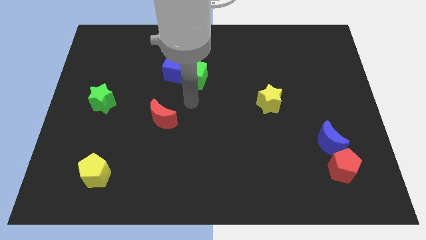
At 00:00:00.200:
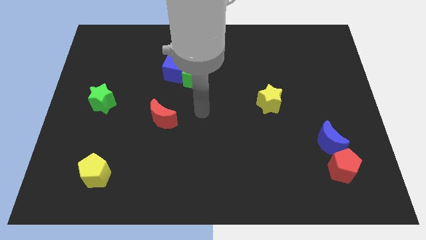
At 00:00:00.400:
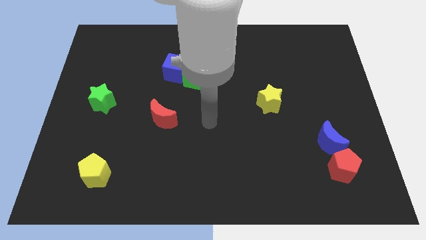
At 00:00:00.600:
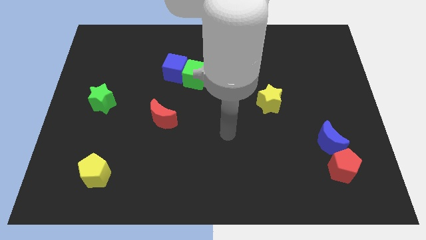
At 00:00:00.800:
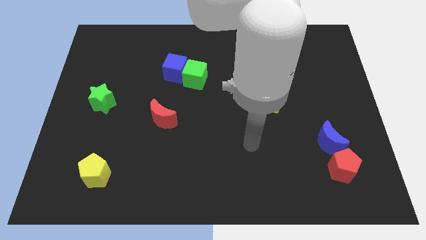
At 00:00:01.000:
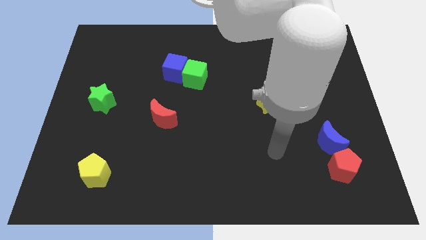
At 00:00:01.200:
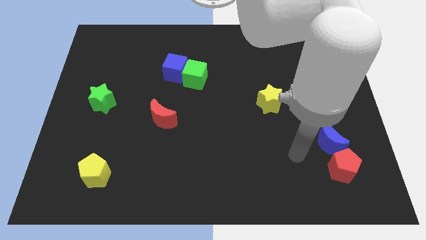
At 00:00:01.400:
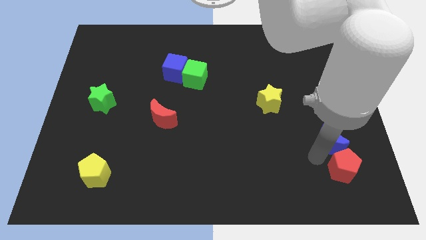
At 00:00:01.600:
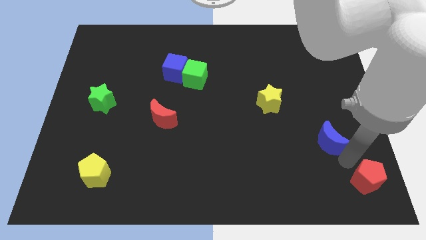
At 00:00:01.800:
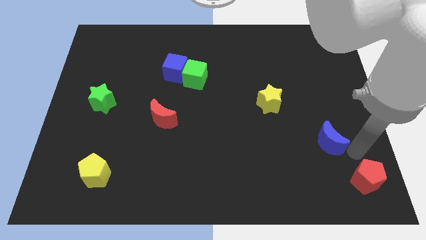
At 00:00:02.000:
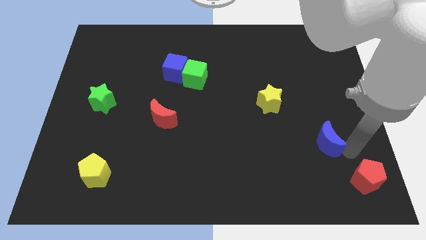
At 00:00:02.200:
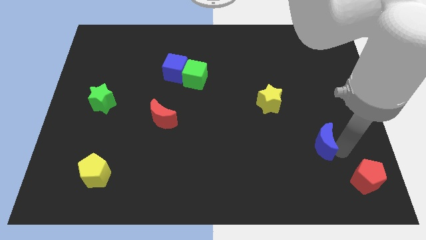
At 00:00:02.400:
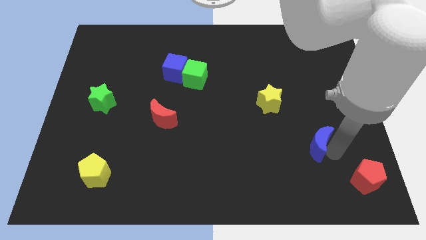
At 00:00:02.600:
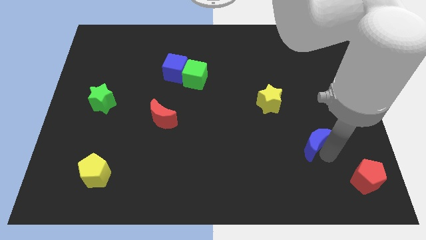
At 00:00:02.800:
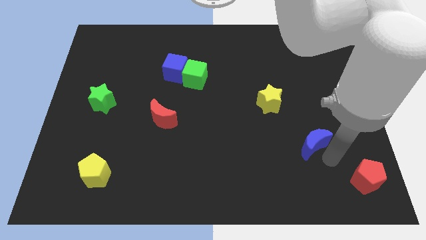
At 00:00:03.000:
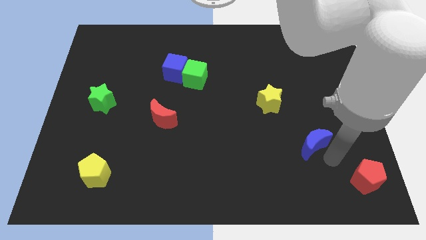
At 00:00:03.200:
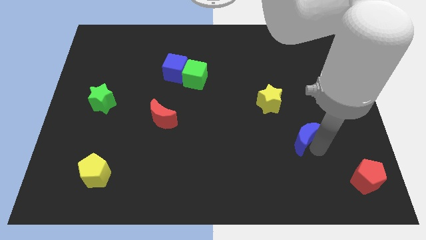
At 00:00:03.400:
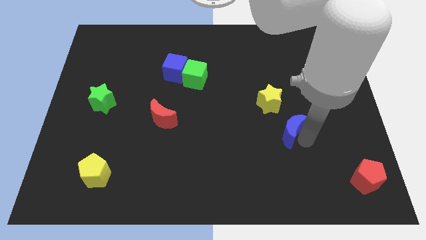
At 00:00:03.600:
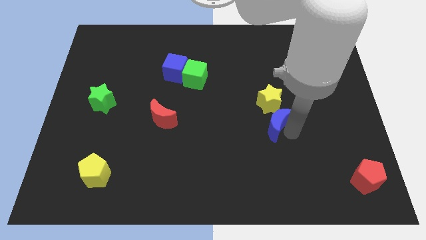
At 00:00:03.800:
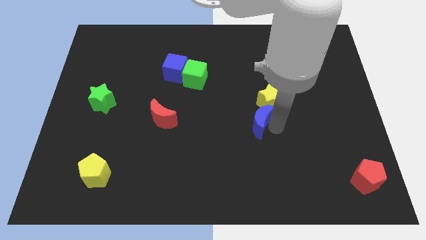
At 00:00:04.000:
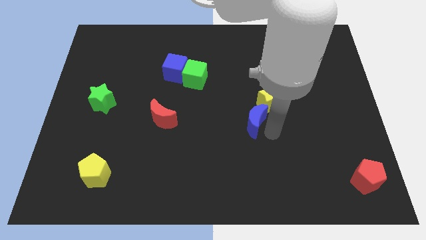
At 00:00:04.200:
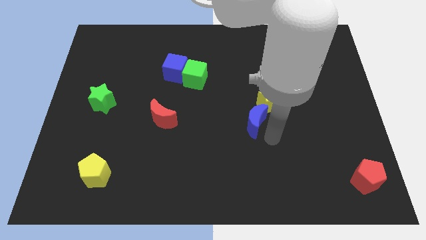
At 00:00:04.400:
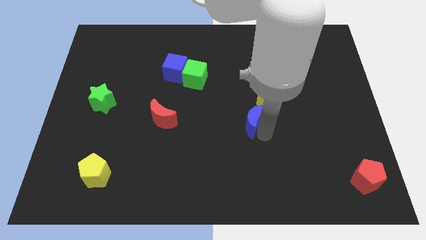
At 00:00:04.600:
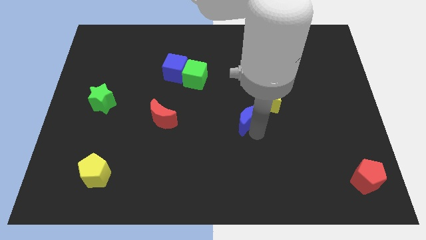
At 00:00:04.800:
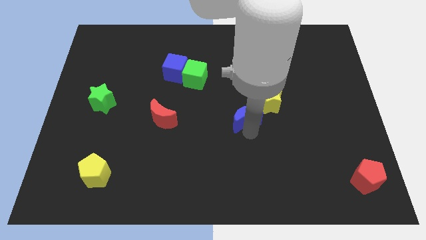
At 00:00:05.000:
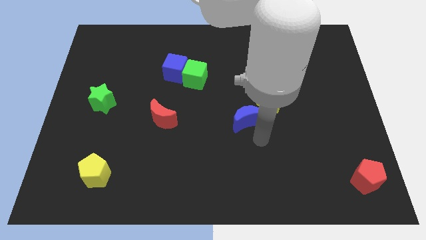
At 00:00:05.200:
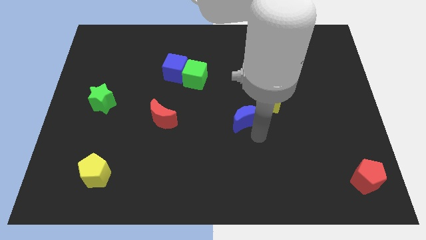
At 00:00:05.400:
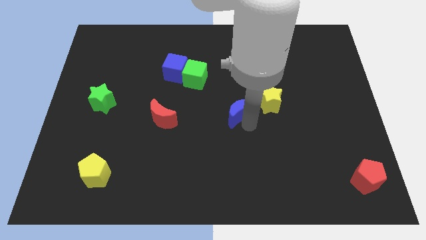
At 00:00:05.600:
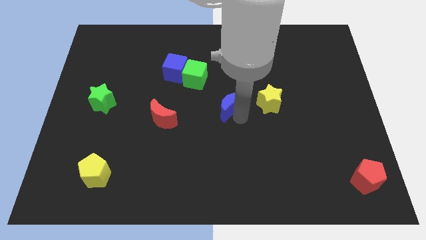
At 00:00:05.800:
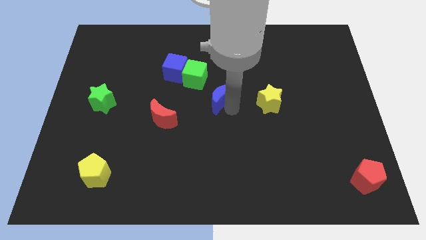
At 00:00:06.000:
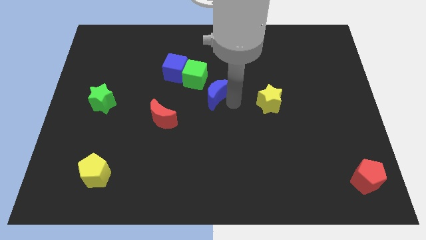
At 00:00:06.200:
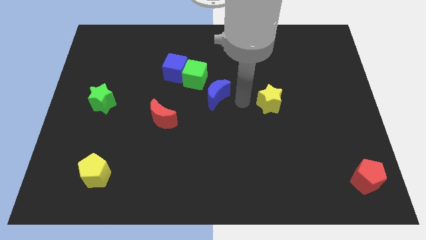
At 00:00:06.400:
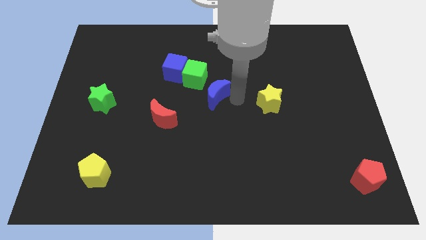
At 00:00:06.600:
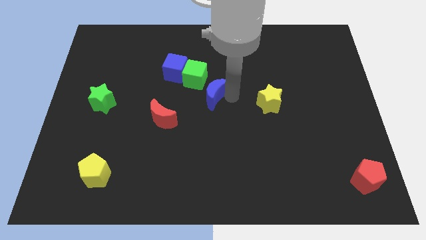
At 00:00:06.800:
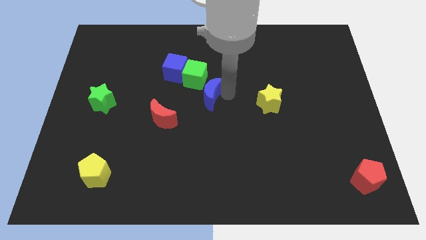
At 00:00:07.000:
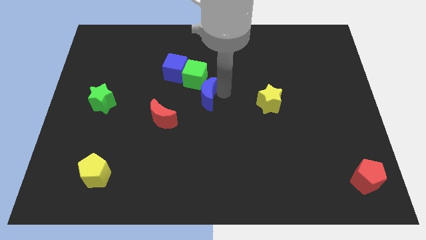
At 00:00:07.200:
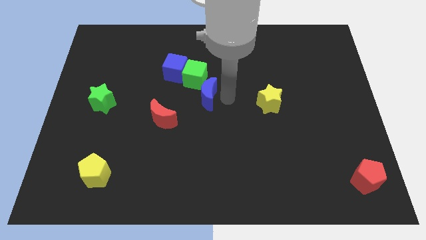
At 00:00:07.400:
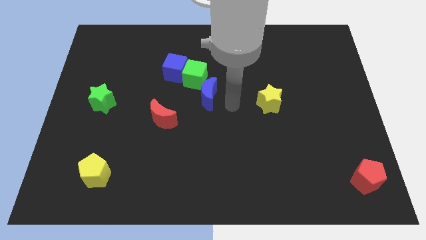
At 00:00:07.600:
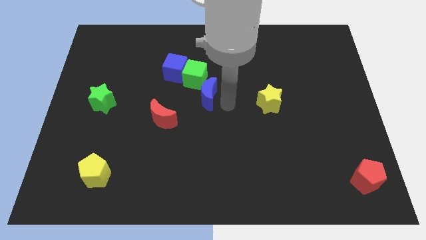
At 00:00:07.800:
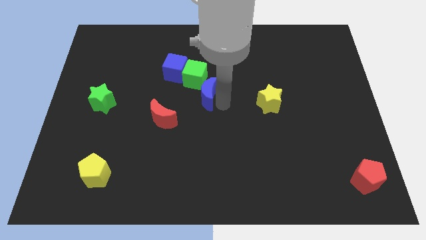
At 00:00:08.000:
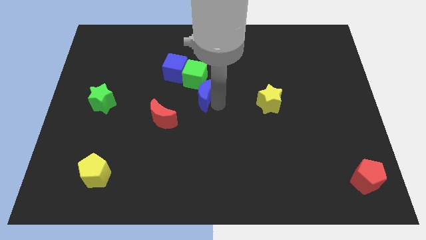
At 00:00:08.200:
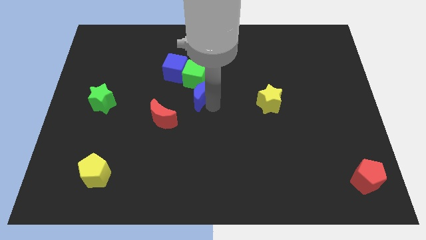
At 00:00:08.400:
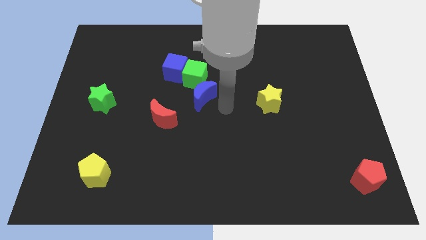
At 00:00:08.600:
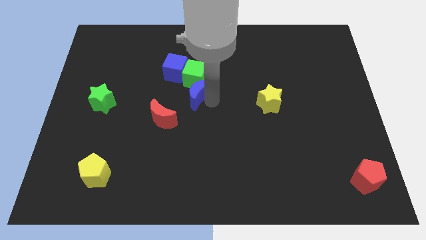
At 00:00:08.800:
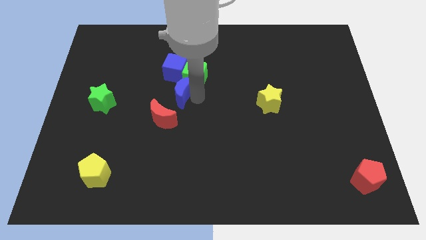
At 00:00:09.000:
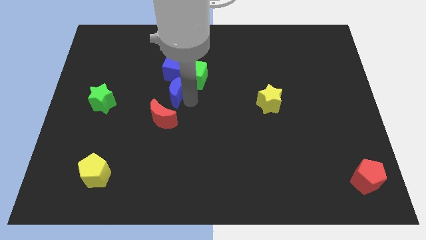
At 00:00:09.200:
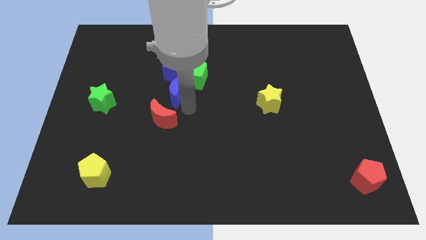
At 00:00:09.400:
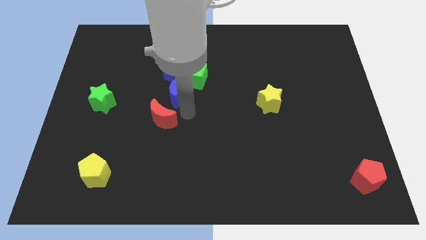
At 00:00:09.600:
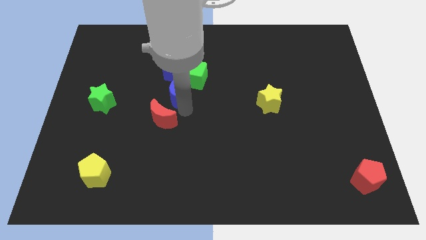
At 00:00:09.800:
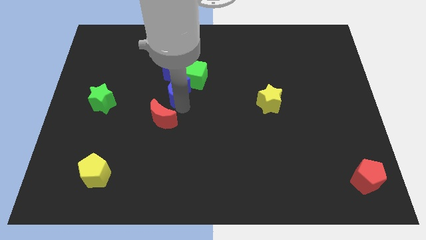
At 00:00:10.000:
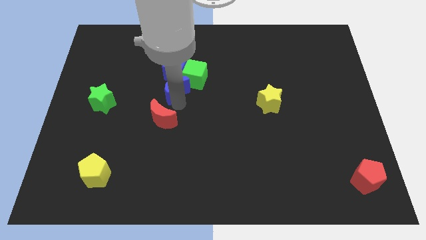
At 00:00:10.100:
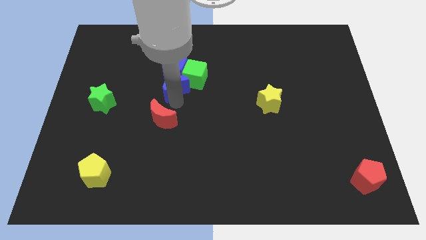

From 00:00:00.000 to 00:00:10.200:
push the blue moon to the blue cube
